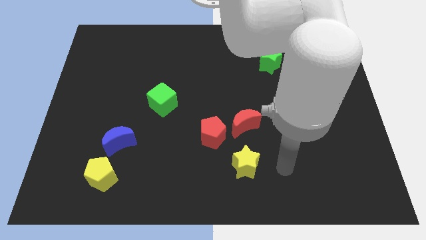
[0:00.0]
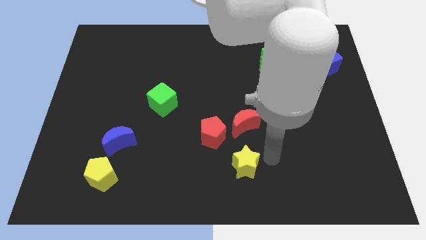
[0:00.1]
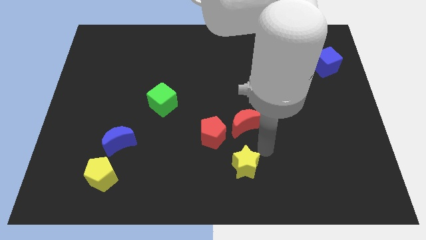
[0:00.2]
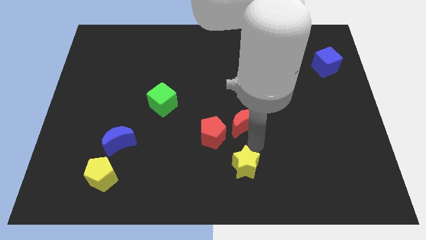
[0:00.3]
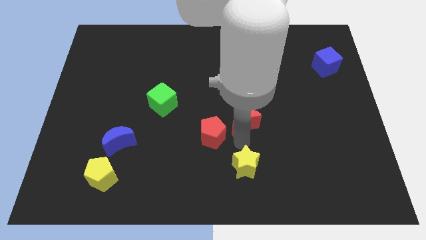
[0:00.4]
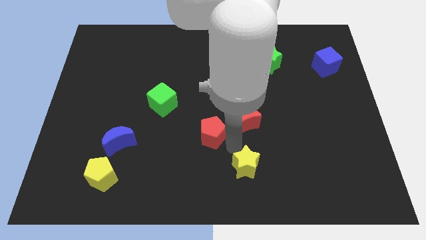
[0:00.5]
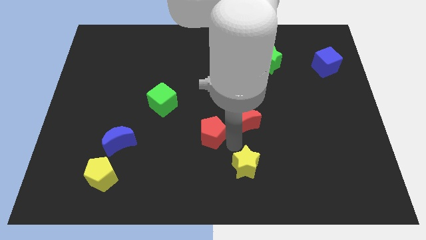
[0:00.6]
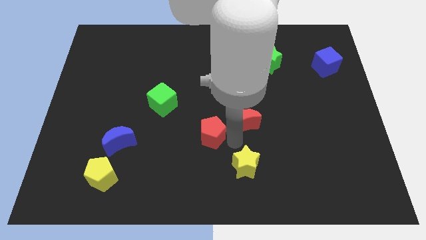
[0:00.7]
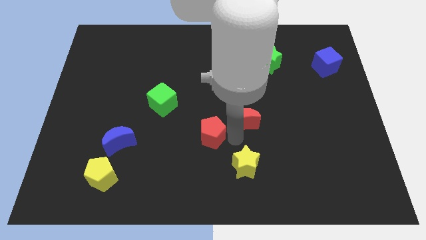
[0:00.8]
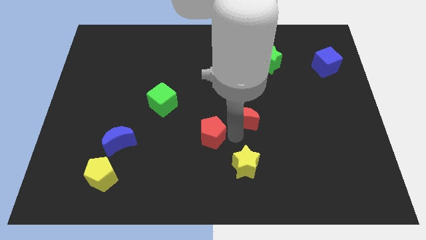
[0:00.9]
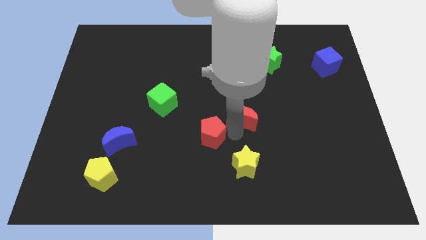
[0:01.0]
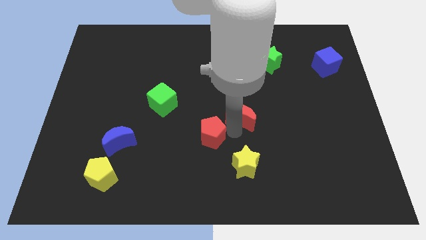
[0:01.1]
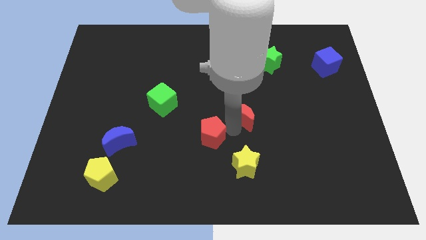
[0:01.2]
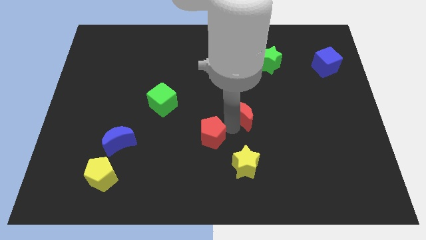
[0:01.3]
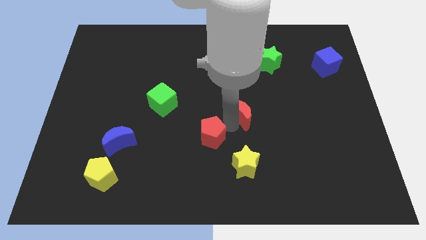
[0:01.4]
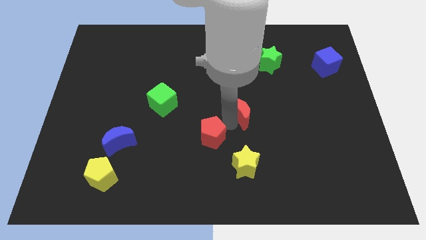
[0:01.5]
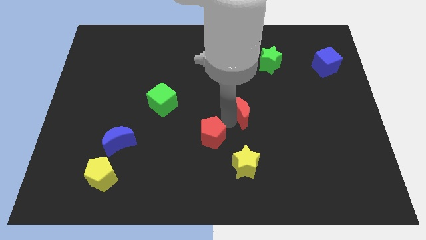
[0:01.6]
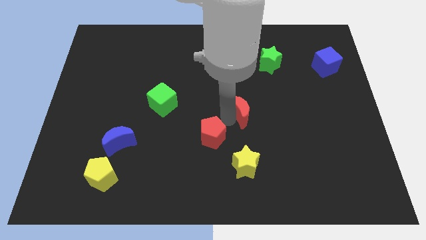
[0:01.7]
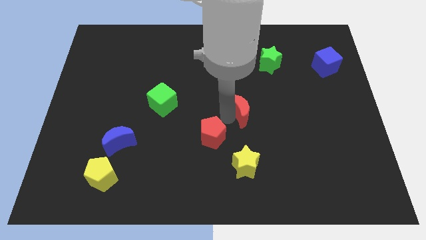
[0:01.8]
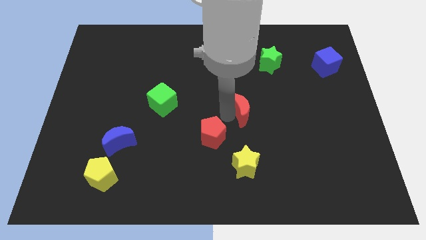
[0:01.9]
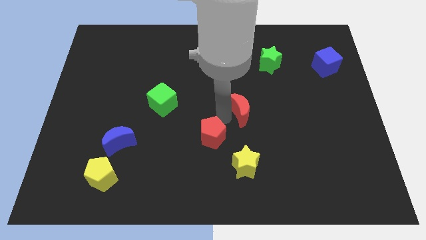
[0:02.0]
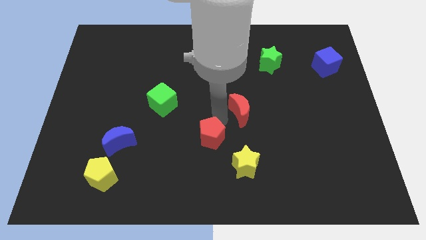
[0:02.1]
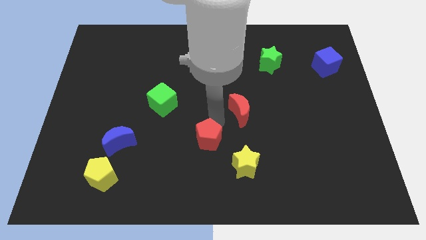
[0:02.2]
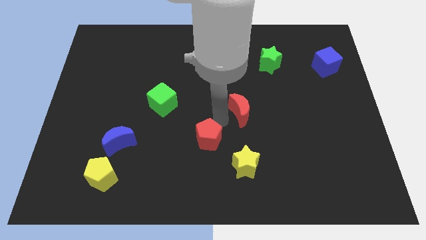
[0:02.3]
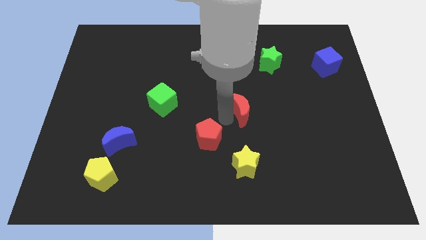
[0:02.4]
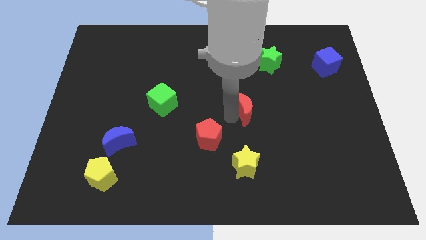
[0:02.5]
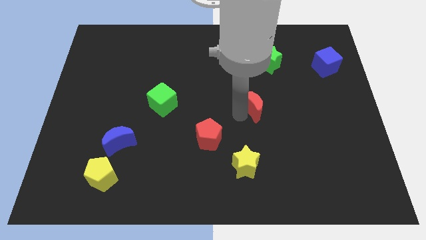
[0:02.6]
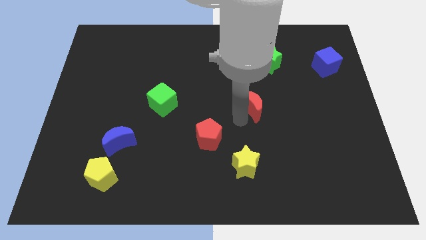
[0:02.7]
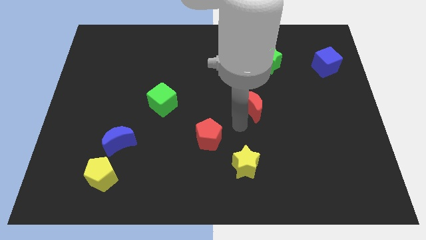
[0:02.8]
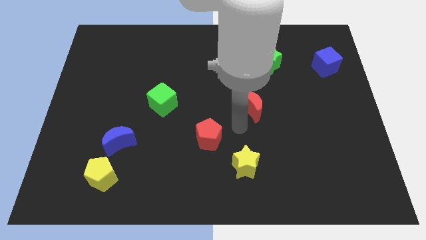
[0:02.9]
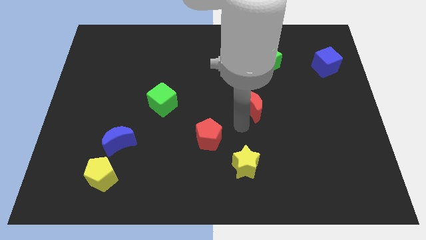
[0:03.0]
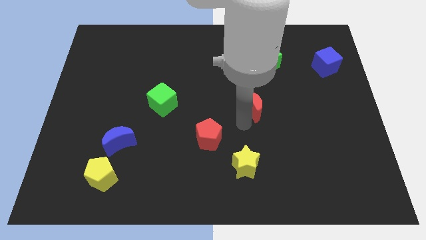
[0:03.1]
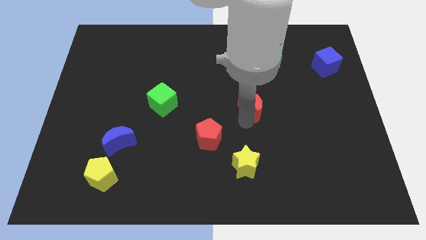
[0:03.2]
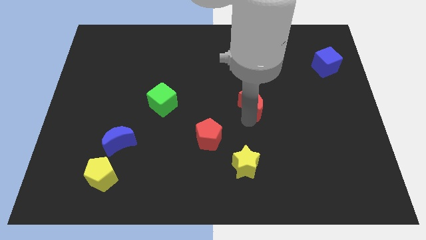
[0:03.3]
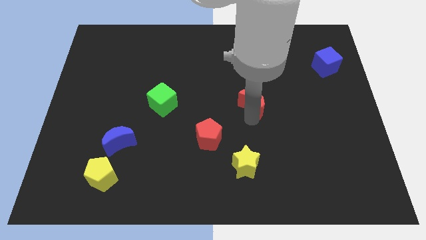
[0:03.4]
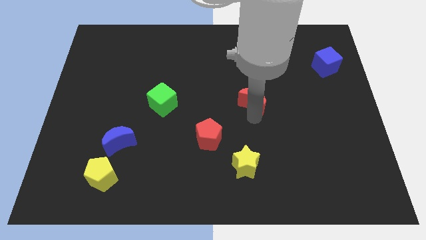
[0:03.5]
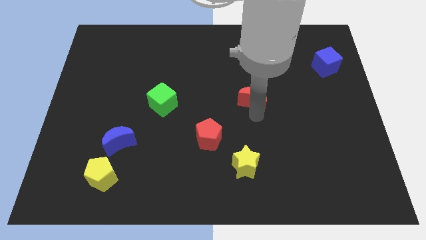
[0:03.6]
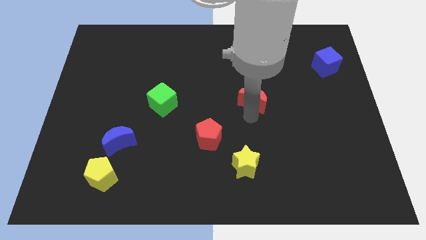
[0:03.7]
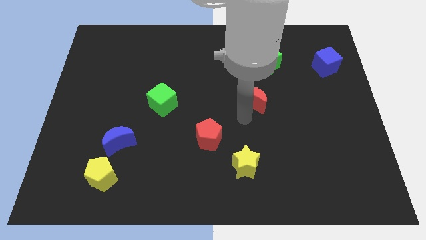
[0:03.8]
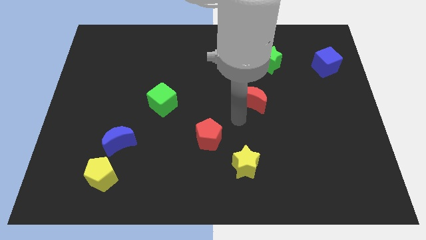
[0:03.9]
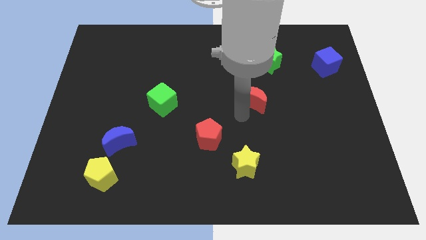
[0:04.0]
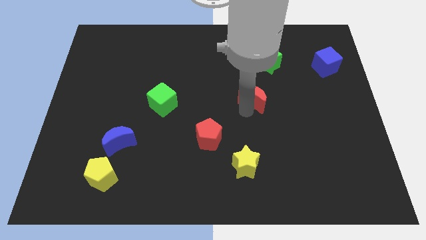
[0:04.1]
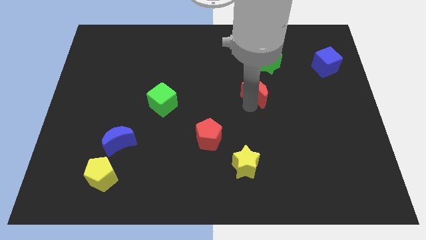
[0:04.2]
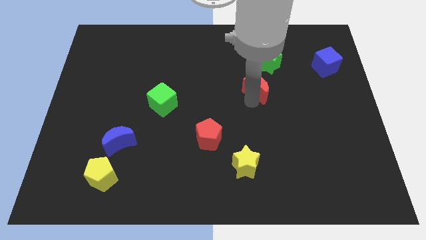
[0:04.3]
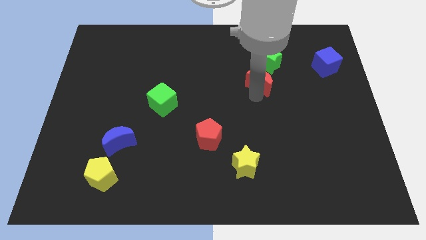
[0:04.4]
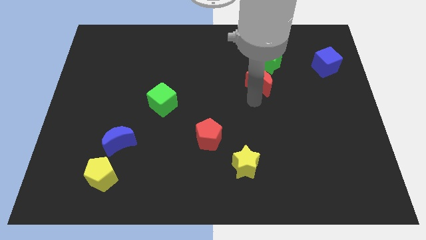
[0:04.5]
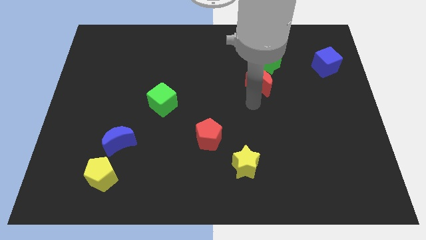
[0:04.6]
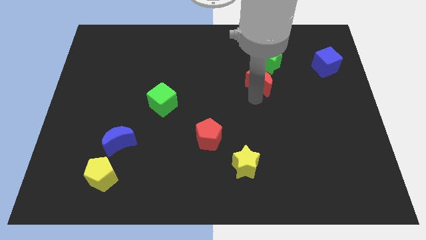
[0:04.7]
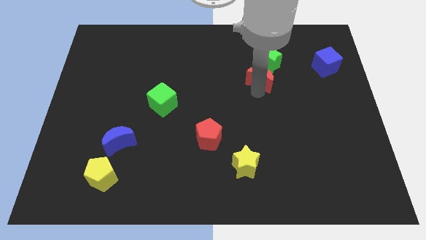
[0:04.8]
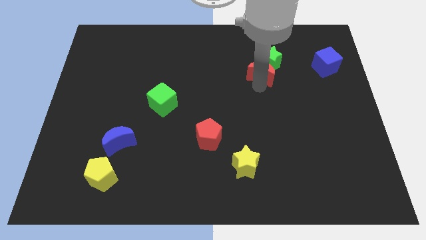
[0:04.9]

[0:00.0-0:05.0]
put the red moon next to the green star

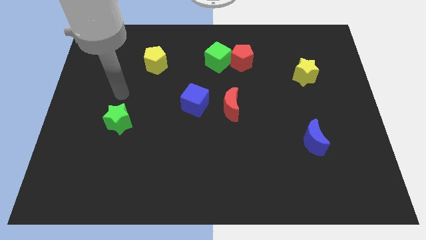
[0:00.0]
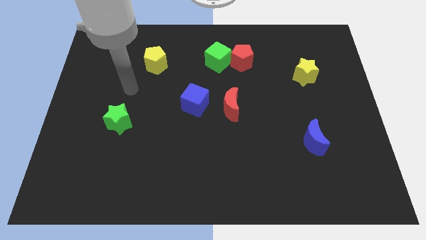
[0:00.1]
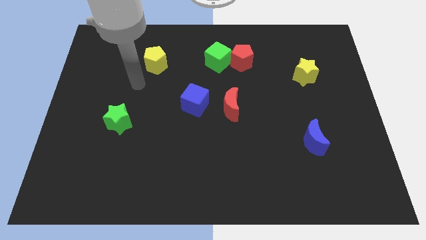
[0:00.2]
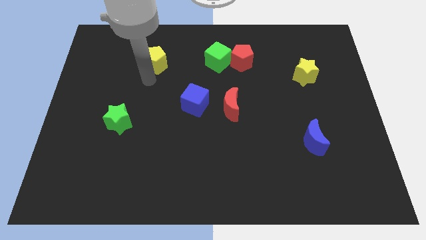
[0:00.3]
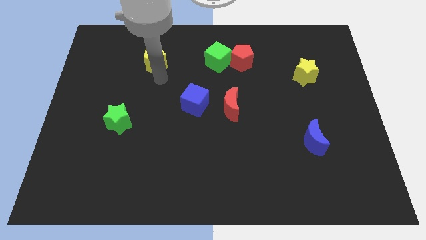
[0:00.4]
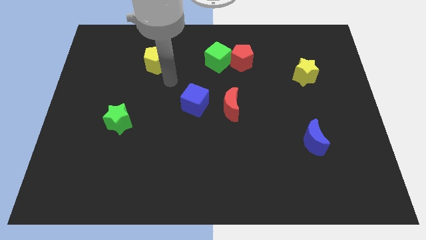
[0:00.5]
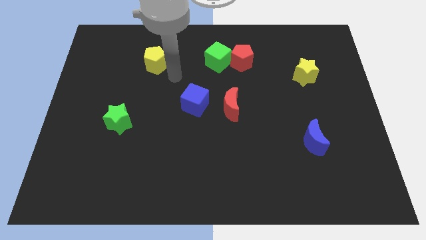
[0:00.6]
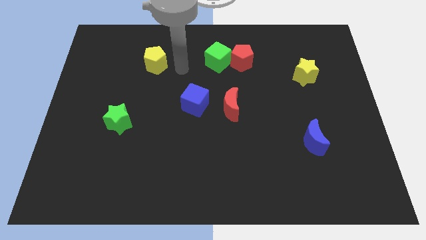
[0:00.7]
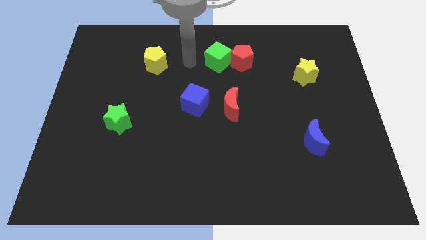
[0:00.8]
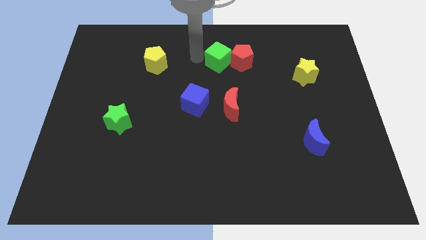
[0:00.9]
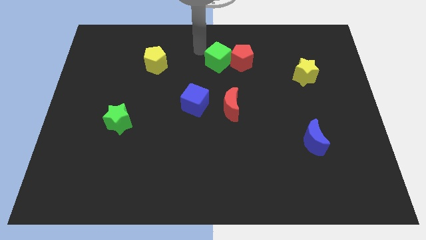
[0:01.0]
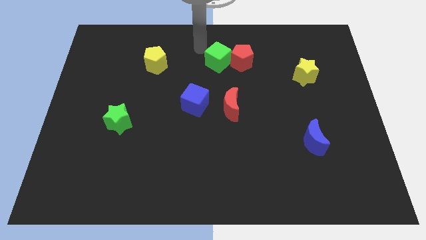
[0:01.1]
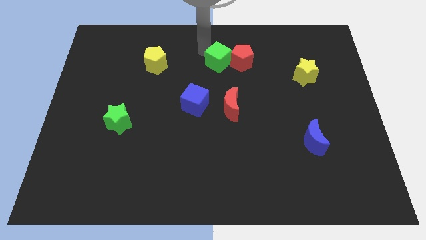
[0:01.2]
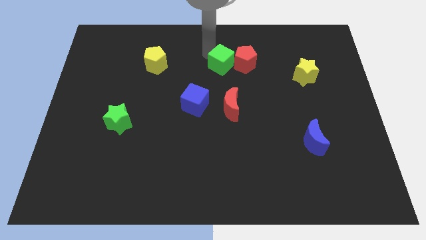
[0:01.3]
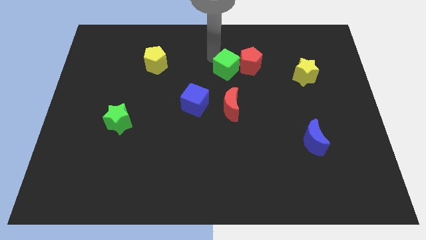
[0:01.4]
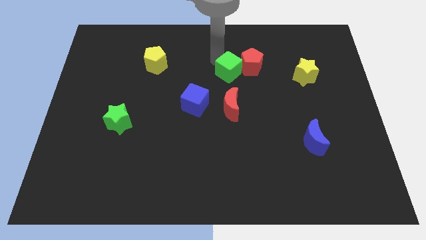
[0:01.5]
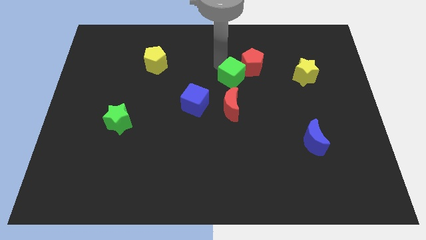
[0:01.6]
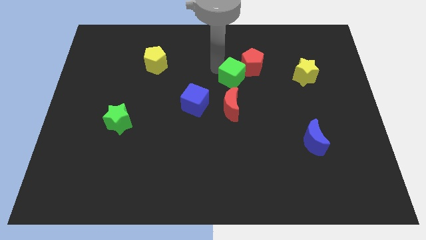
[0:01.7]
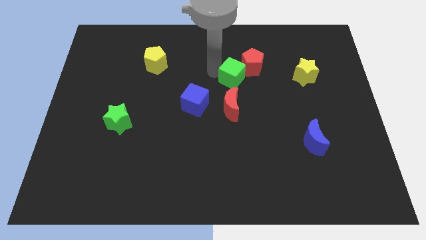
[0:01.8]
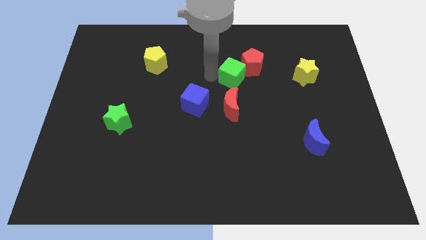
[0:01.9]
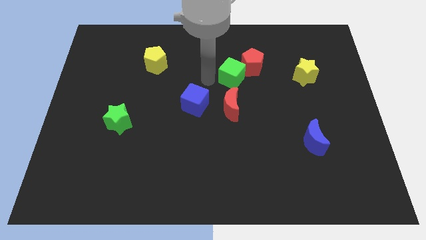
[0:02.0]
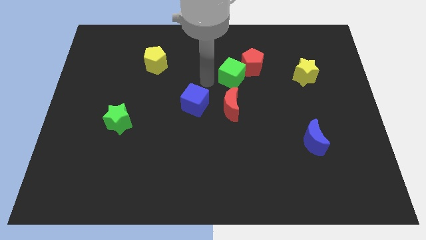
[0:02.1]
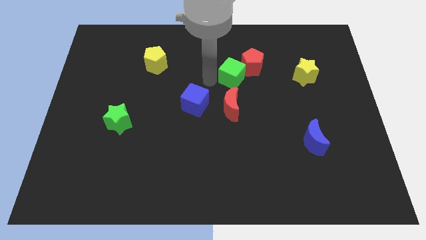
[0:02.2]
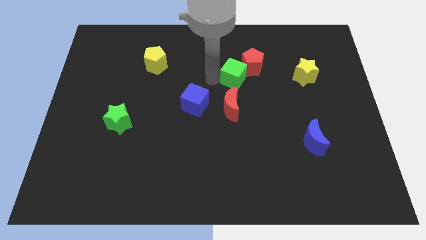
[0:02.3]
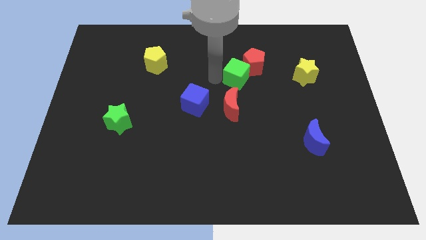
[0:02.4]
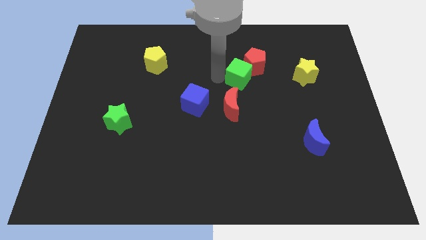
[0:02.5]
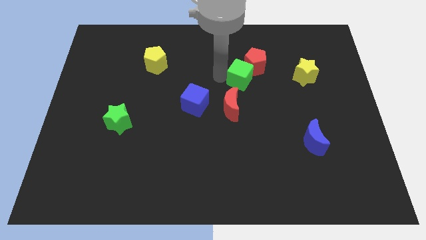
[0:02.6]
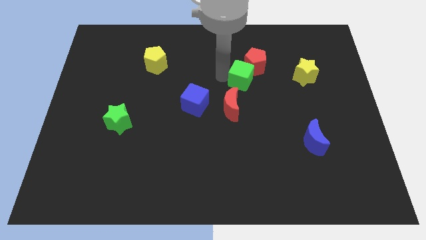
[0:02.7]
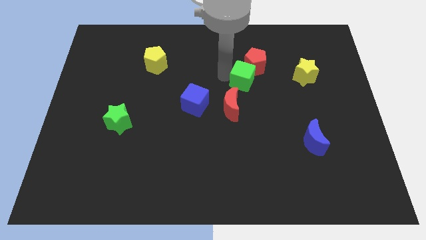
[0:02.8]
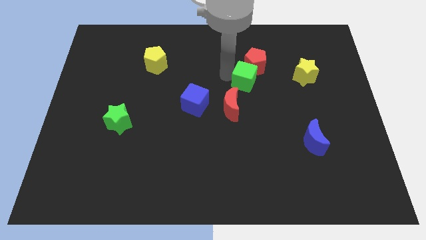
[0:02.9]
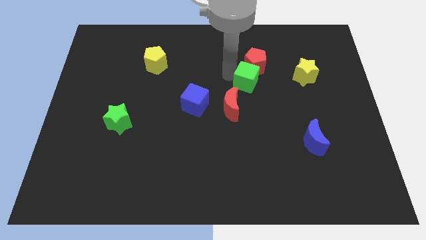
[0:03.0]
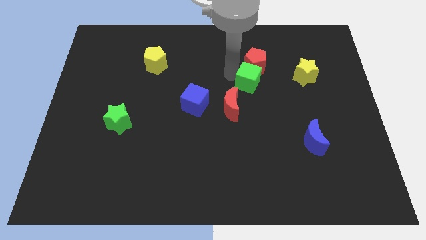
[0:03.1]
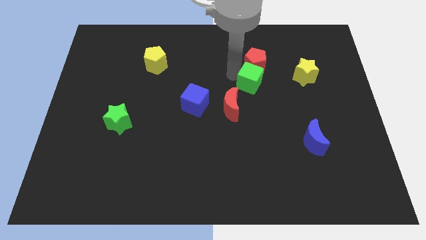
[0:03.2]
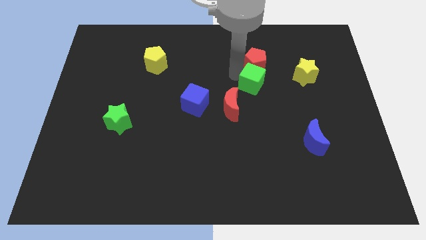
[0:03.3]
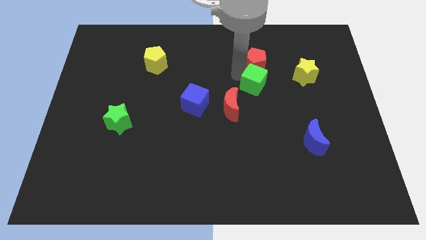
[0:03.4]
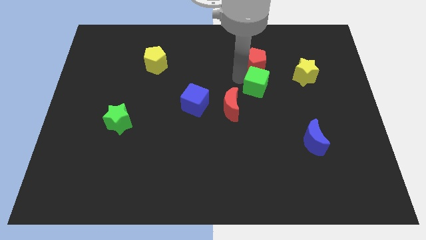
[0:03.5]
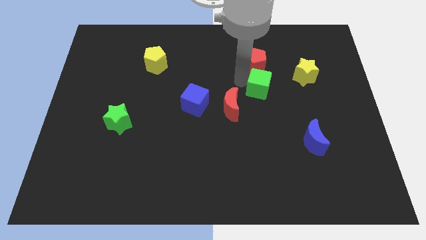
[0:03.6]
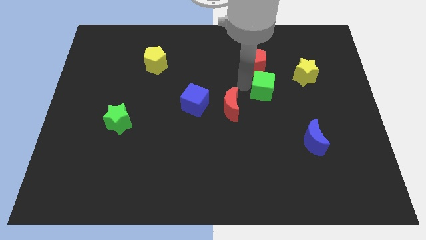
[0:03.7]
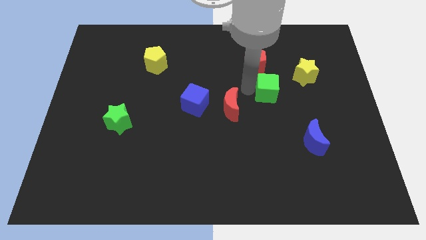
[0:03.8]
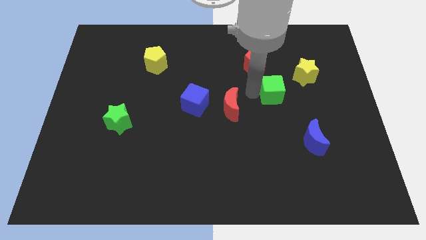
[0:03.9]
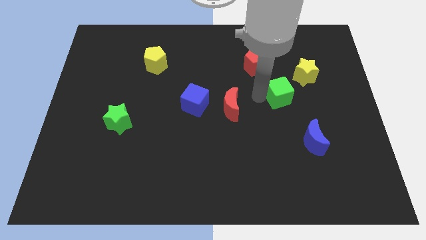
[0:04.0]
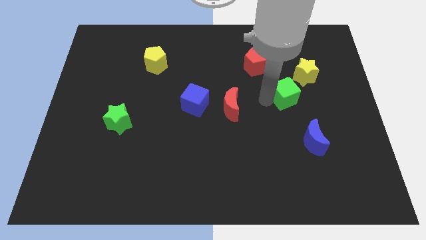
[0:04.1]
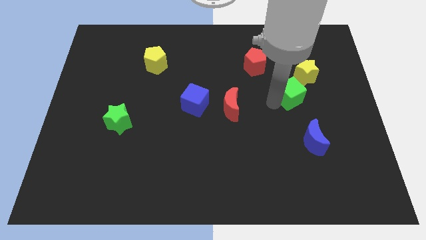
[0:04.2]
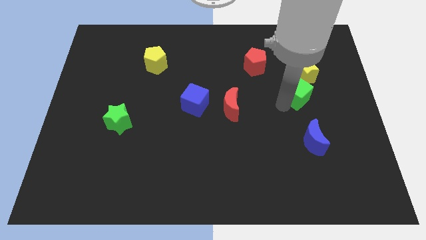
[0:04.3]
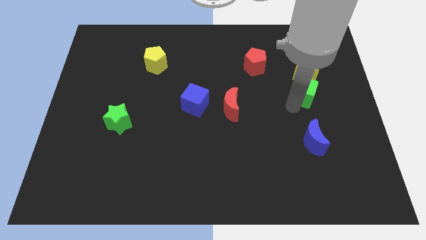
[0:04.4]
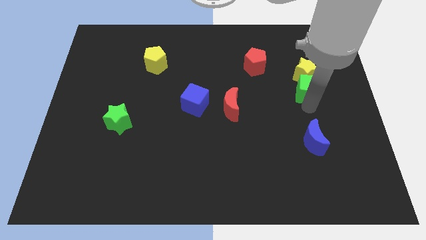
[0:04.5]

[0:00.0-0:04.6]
slide the green cube close to the yellow star
